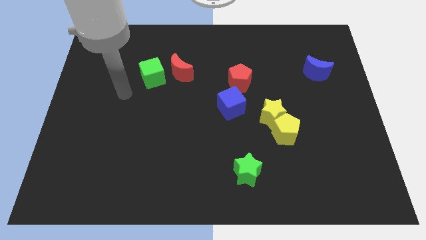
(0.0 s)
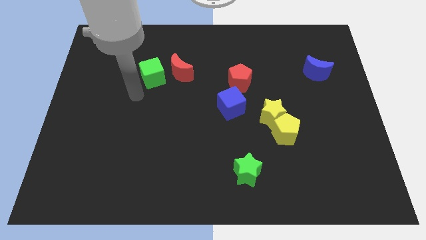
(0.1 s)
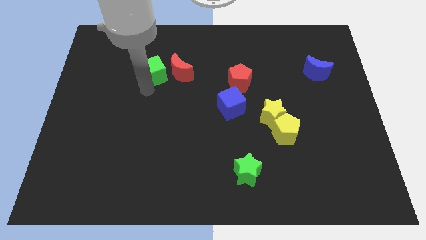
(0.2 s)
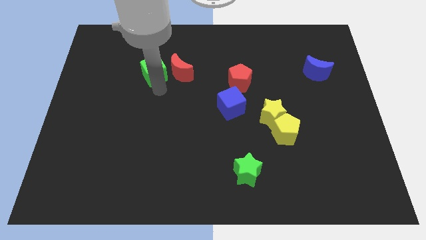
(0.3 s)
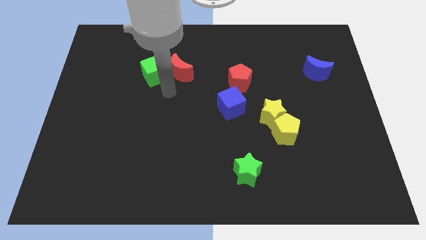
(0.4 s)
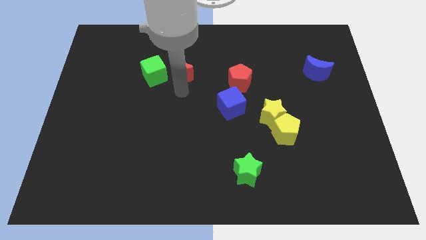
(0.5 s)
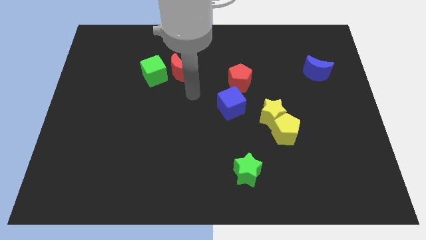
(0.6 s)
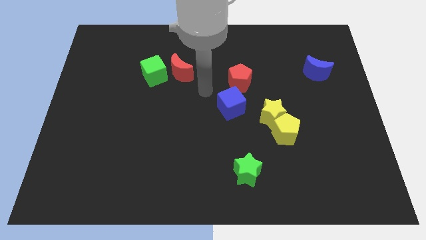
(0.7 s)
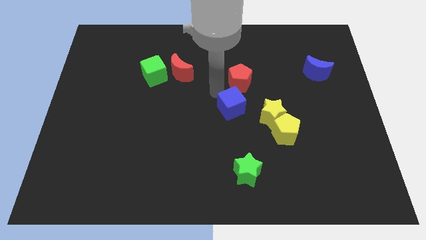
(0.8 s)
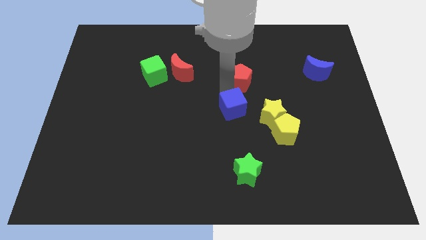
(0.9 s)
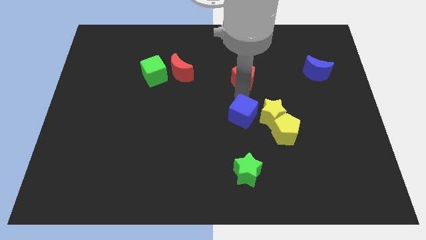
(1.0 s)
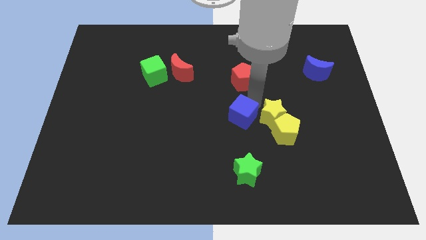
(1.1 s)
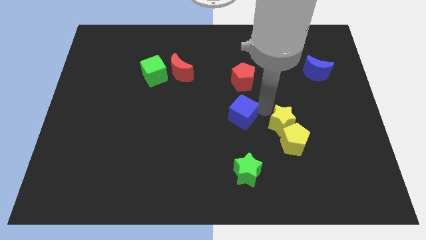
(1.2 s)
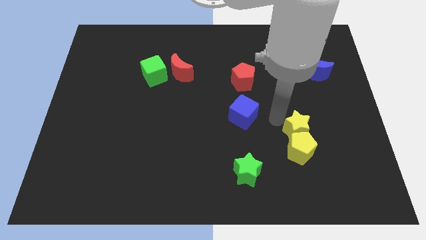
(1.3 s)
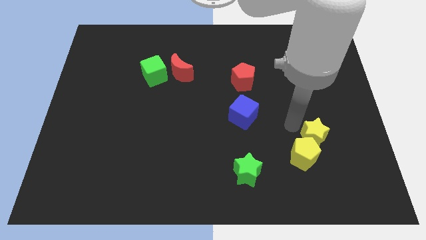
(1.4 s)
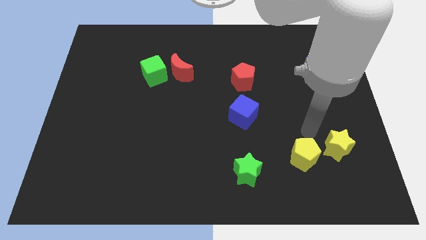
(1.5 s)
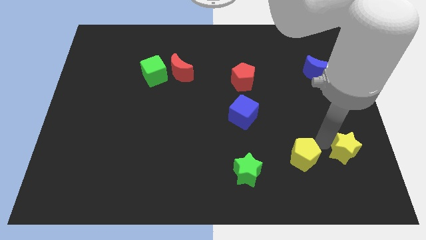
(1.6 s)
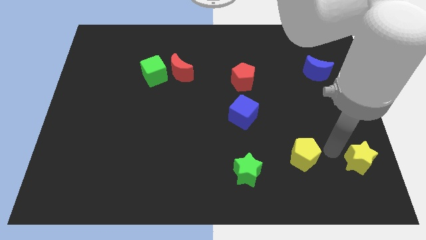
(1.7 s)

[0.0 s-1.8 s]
separate the yellow pentagon from the yellow star

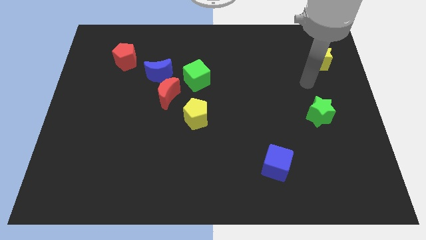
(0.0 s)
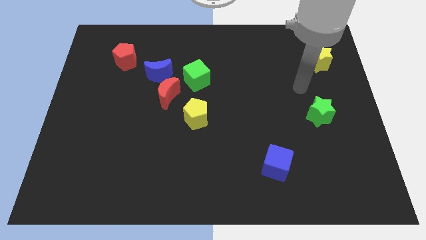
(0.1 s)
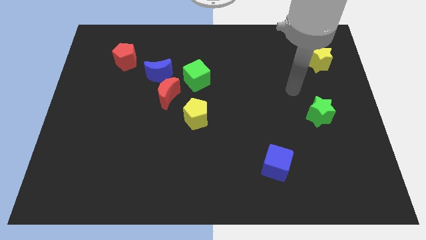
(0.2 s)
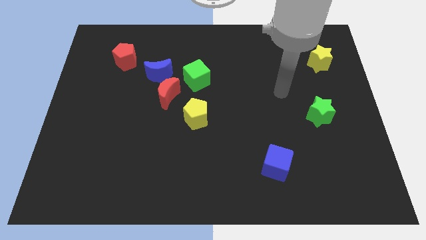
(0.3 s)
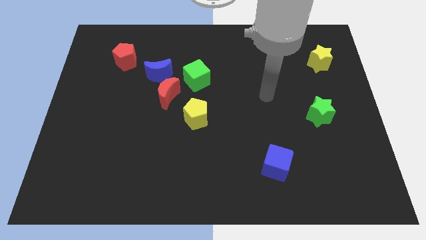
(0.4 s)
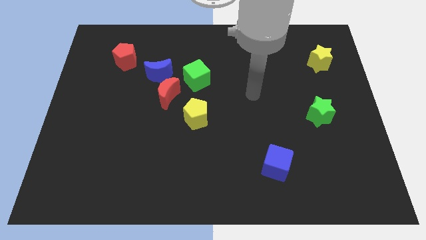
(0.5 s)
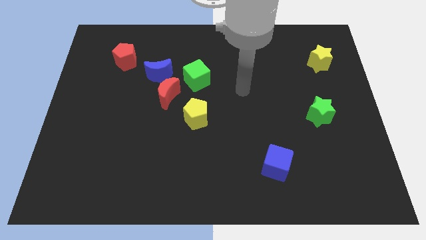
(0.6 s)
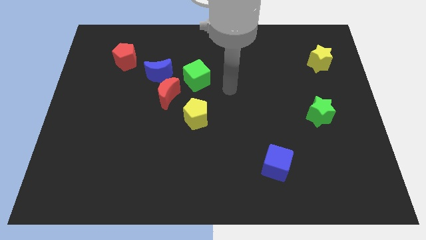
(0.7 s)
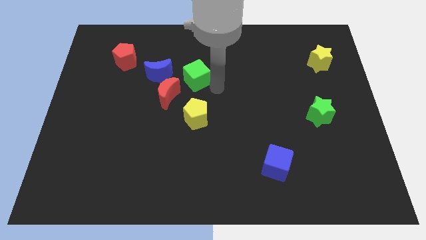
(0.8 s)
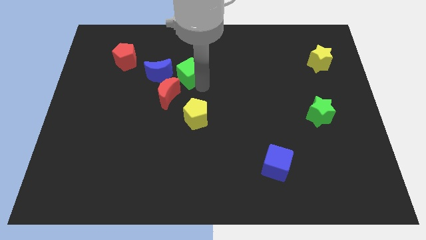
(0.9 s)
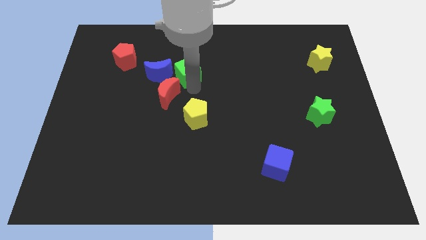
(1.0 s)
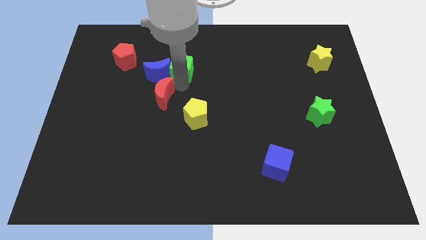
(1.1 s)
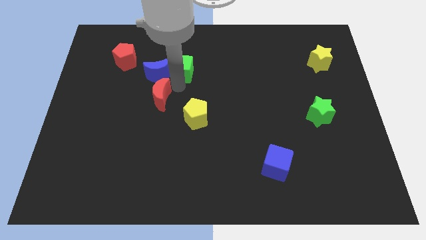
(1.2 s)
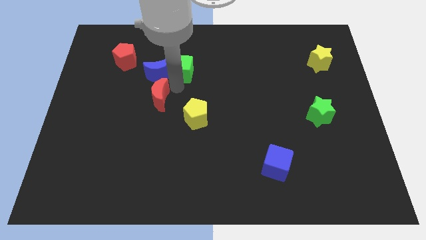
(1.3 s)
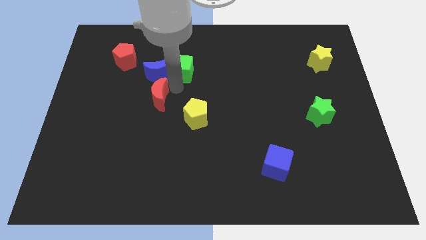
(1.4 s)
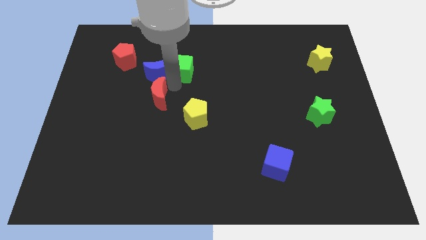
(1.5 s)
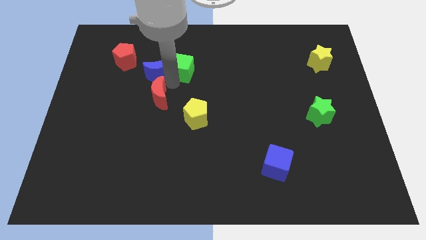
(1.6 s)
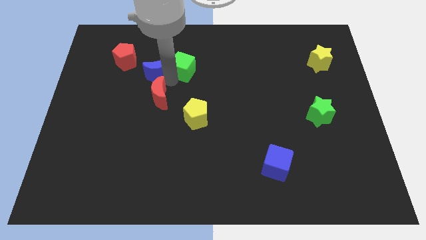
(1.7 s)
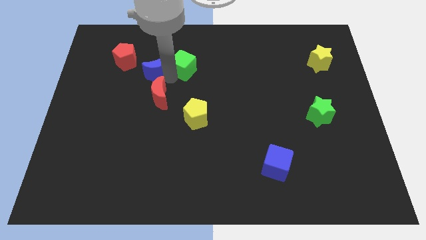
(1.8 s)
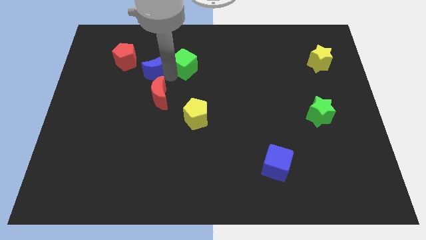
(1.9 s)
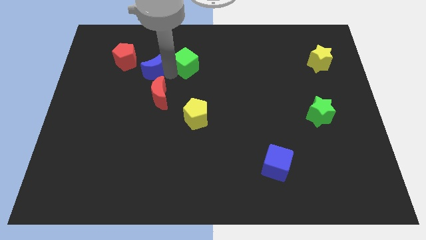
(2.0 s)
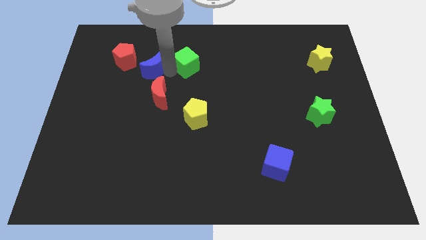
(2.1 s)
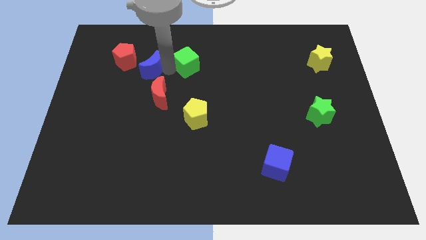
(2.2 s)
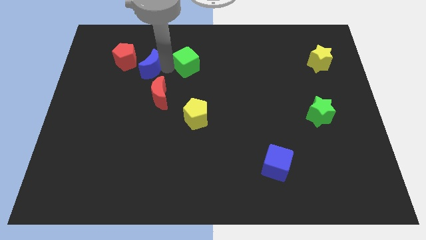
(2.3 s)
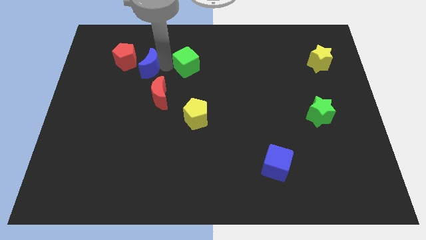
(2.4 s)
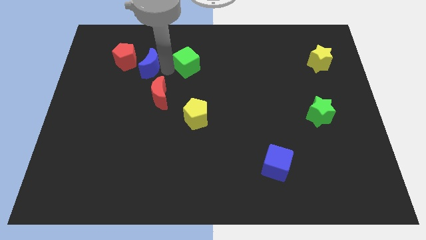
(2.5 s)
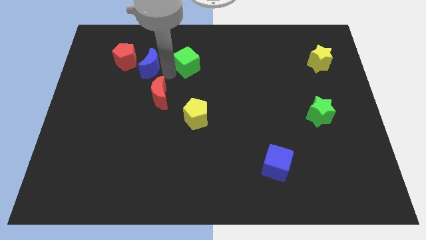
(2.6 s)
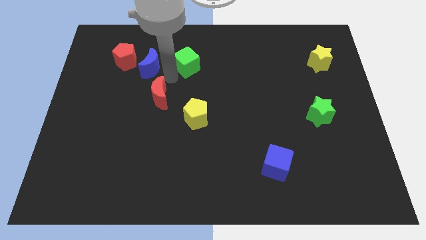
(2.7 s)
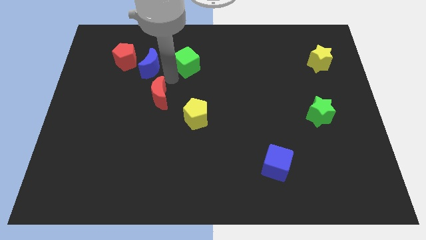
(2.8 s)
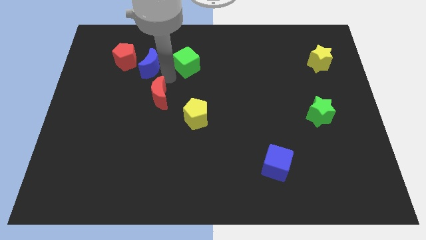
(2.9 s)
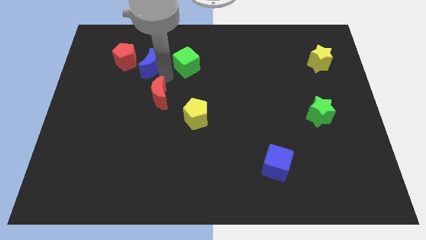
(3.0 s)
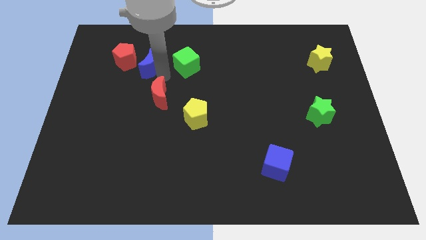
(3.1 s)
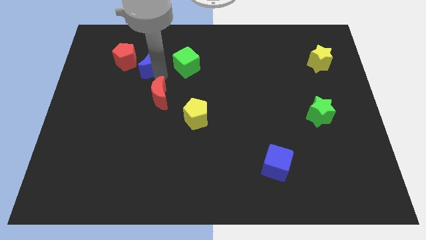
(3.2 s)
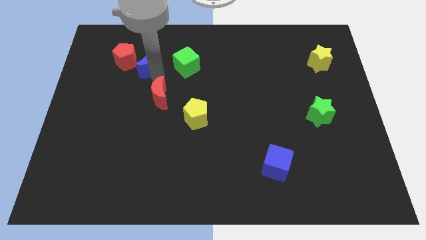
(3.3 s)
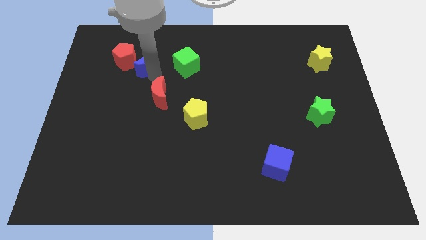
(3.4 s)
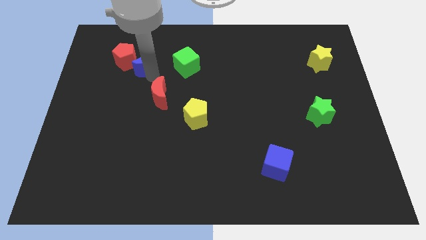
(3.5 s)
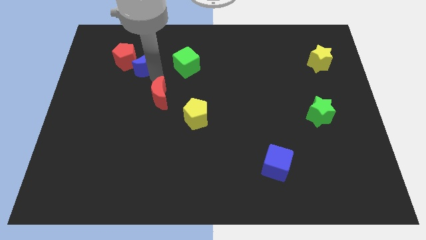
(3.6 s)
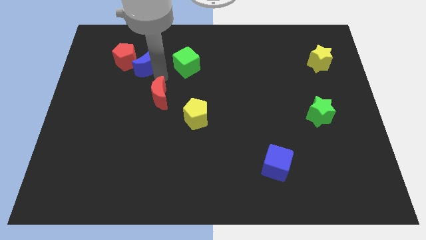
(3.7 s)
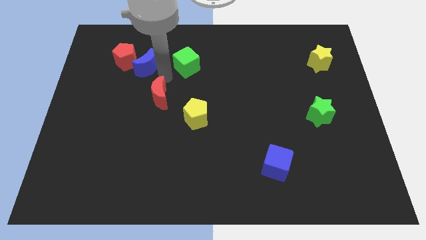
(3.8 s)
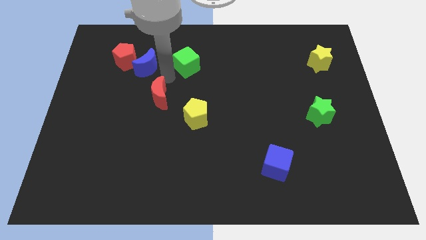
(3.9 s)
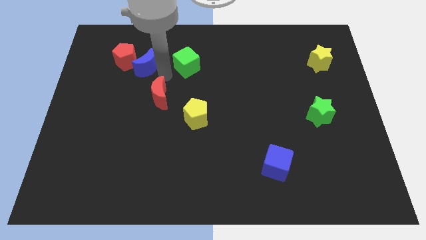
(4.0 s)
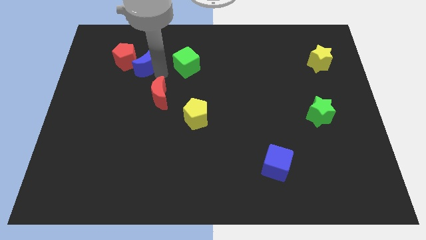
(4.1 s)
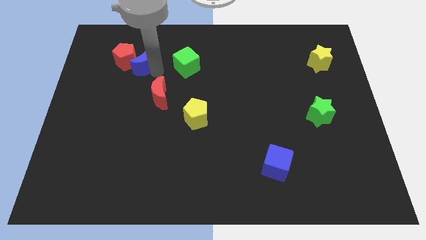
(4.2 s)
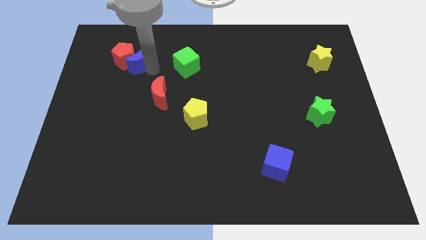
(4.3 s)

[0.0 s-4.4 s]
separate the blue moon from the red moon and green cube

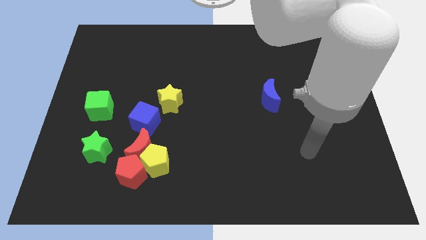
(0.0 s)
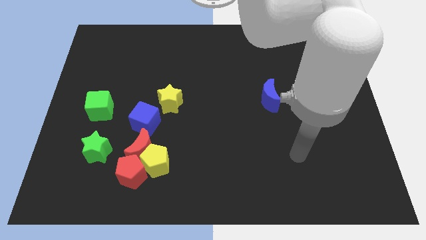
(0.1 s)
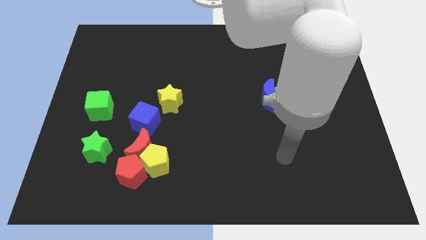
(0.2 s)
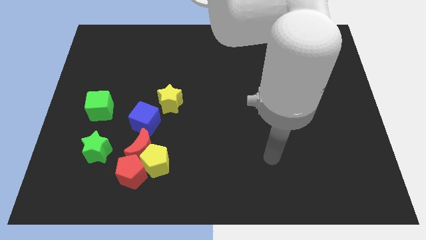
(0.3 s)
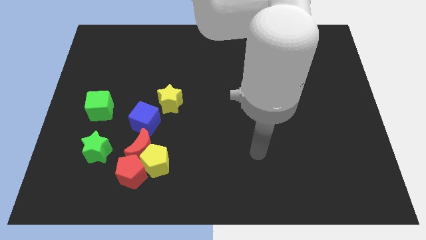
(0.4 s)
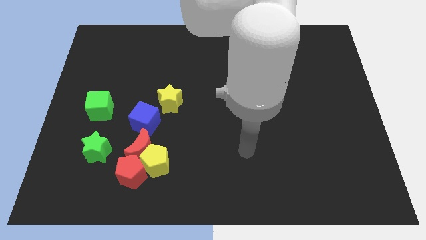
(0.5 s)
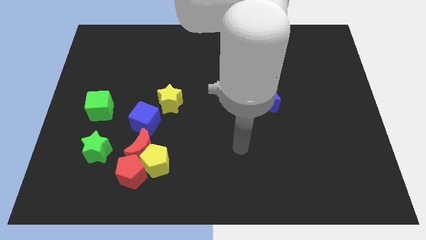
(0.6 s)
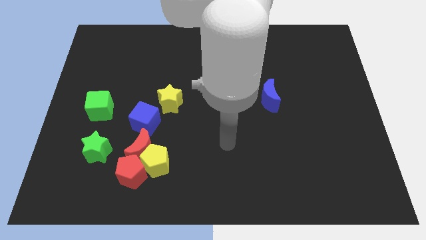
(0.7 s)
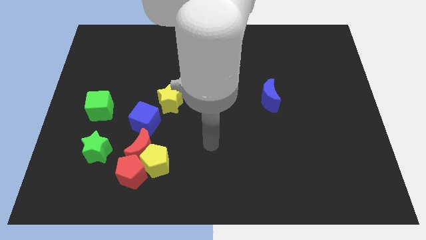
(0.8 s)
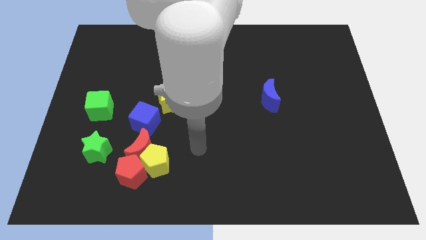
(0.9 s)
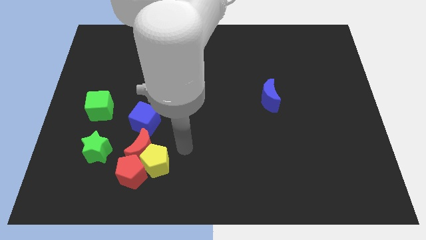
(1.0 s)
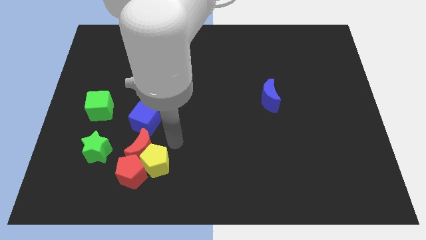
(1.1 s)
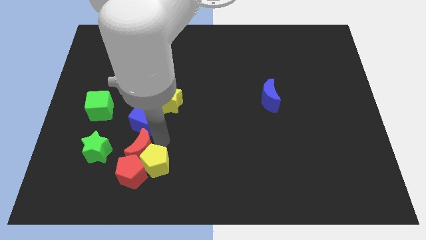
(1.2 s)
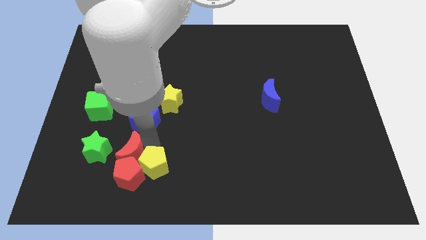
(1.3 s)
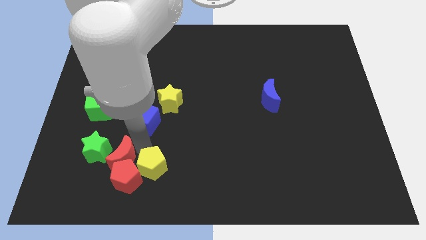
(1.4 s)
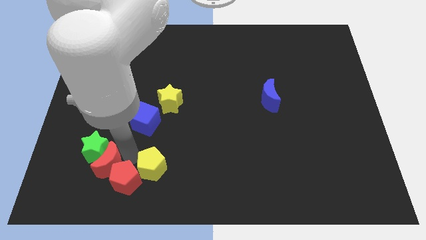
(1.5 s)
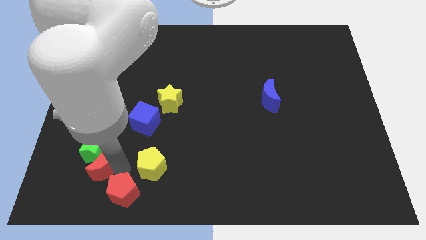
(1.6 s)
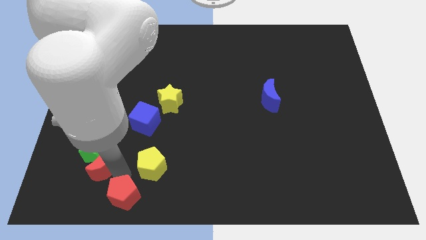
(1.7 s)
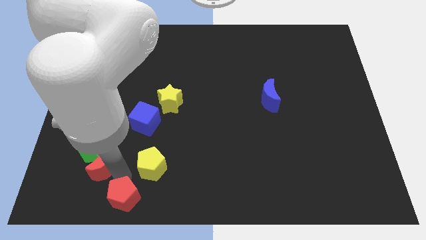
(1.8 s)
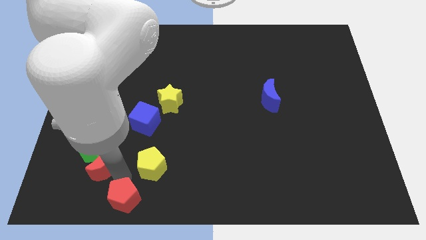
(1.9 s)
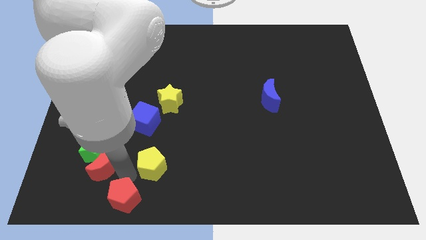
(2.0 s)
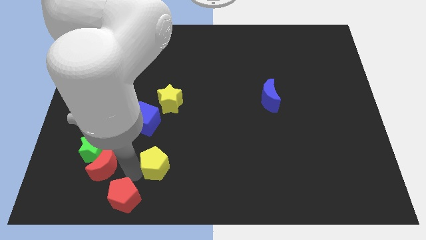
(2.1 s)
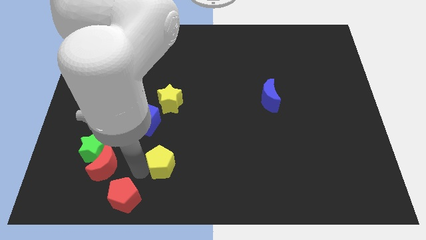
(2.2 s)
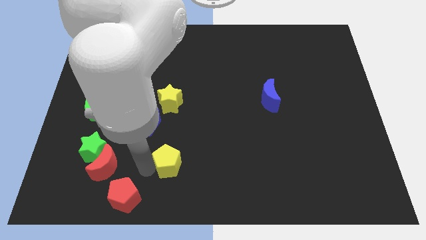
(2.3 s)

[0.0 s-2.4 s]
separate the yellow pentagon from the red moon and red pentagon

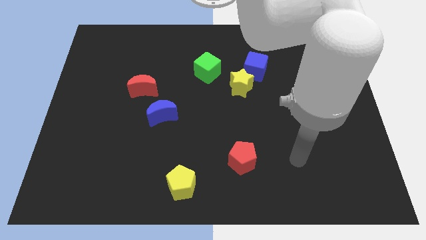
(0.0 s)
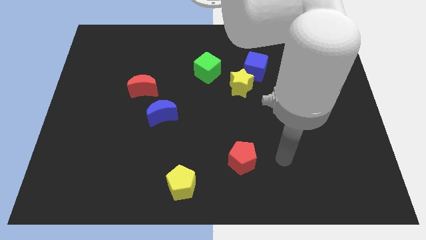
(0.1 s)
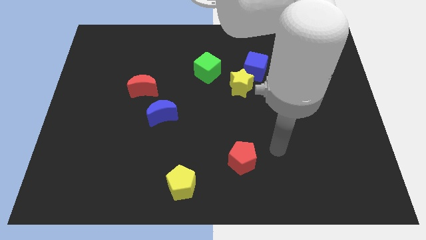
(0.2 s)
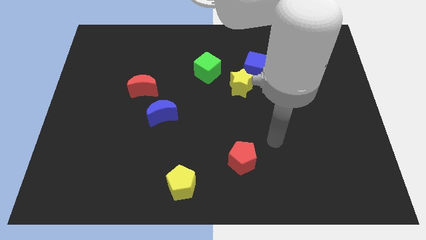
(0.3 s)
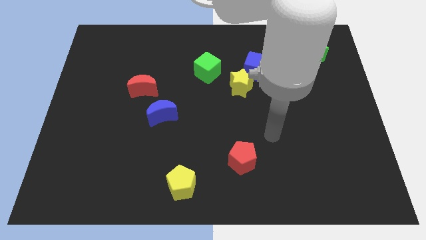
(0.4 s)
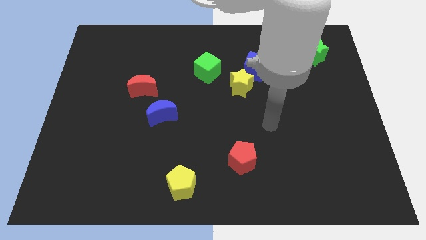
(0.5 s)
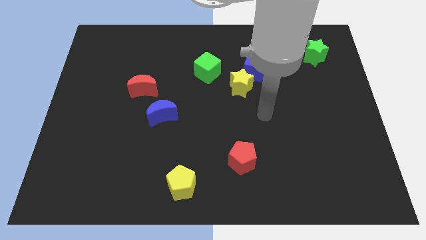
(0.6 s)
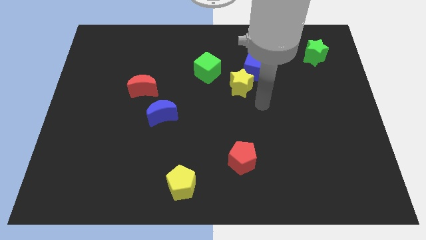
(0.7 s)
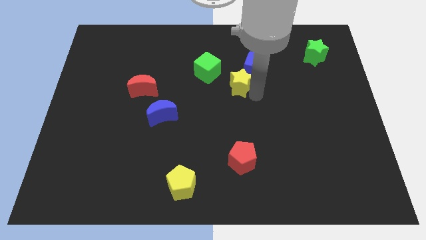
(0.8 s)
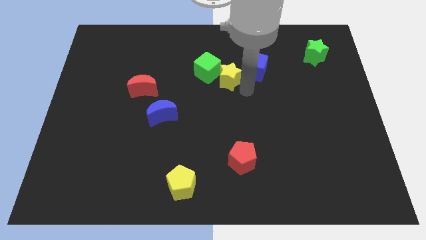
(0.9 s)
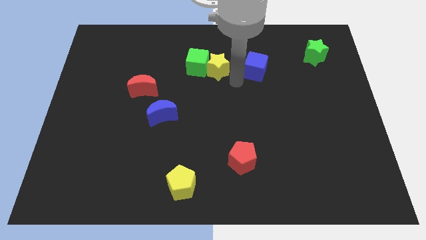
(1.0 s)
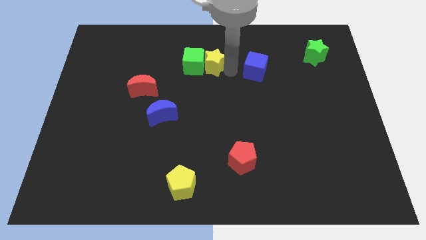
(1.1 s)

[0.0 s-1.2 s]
separate the blue cube from the yellow star
